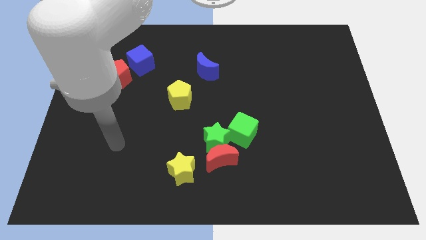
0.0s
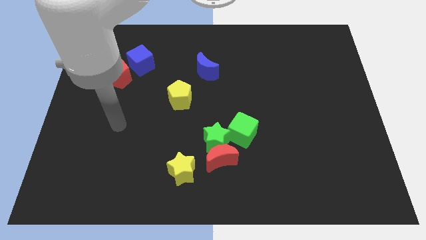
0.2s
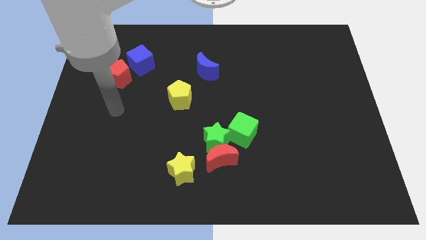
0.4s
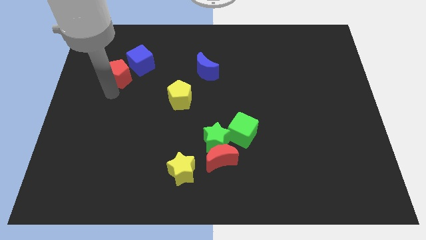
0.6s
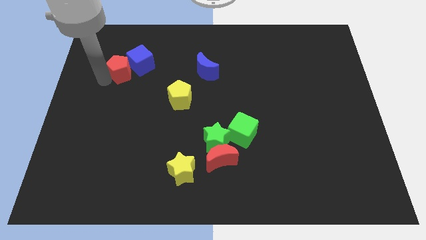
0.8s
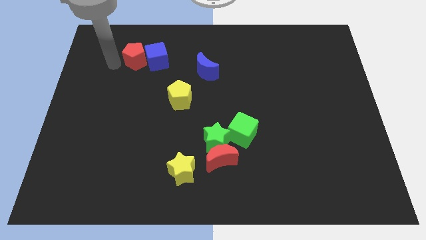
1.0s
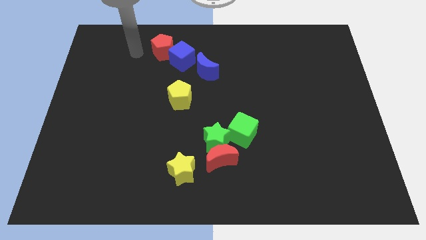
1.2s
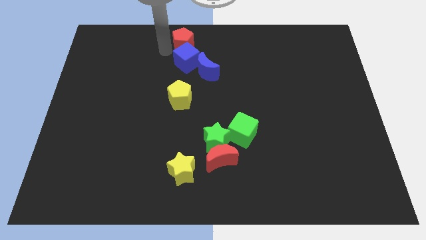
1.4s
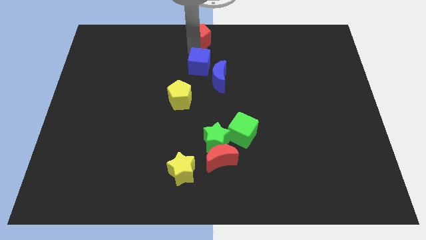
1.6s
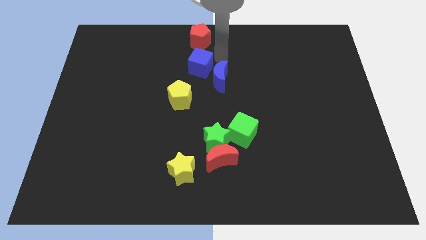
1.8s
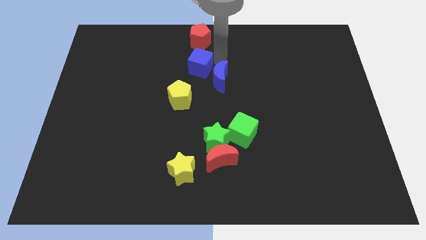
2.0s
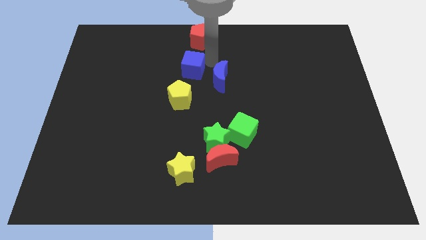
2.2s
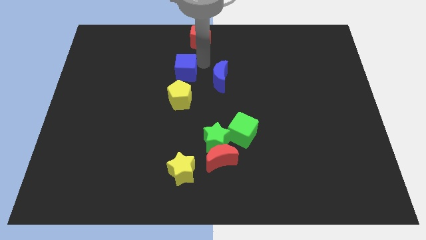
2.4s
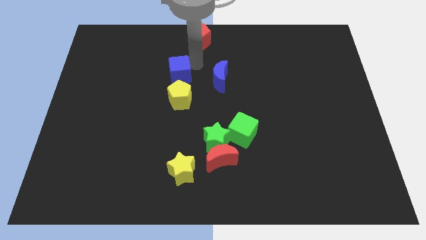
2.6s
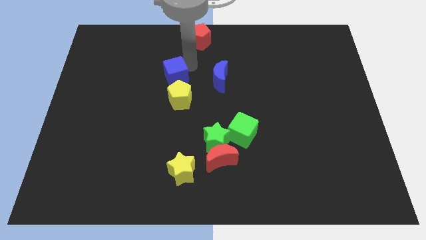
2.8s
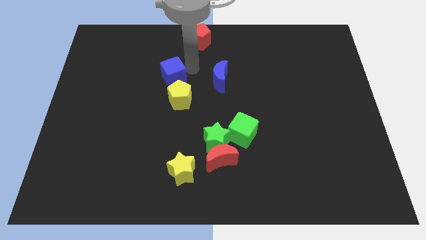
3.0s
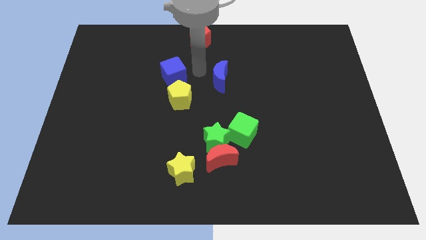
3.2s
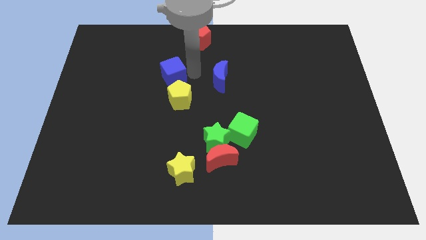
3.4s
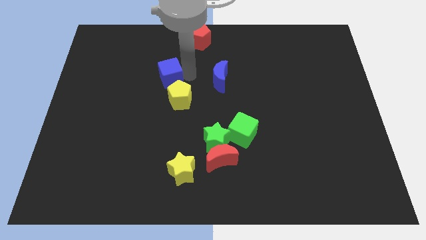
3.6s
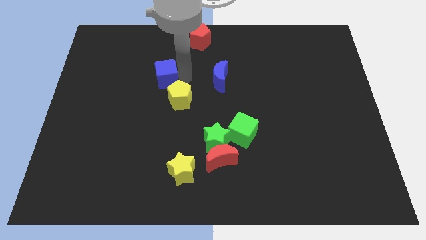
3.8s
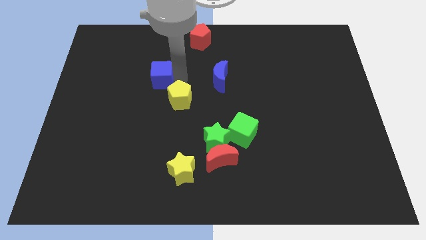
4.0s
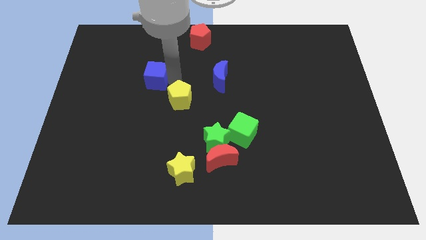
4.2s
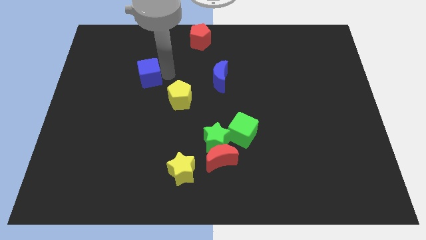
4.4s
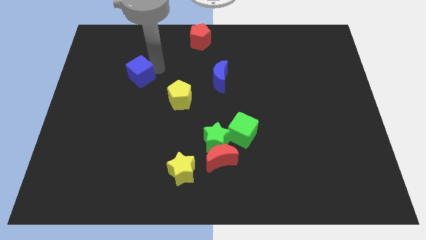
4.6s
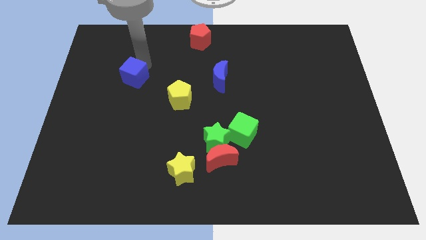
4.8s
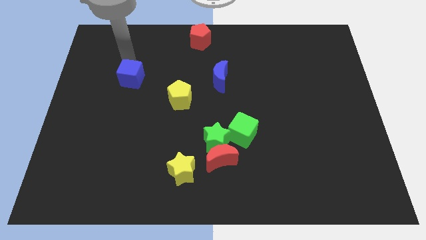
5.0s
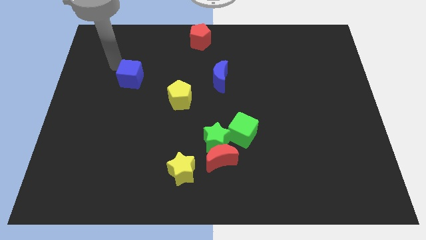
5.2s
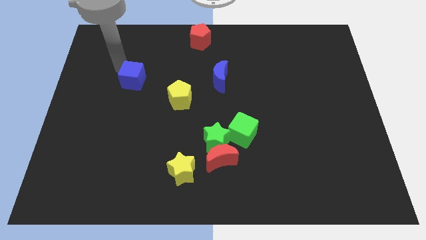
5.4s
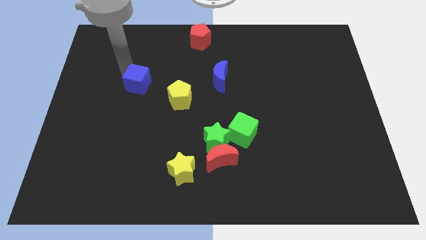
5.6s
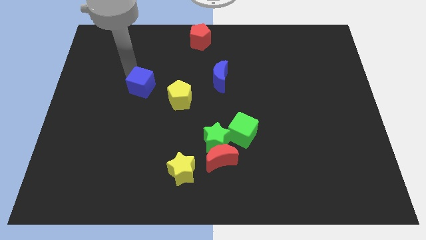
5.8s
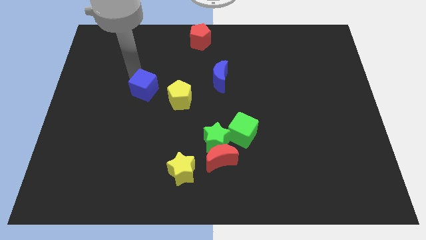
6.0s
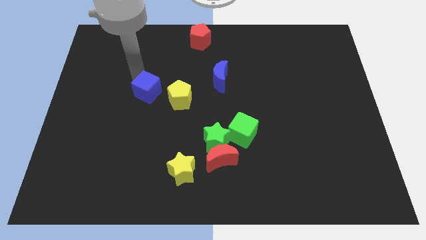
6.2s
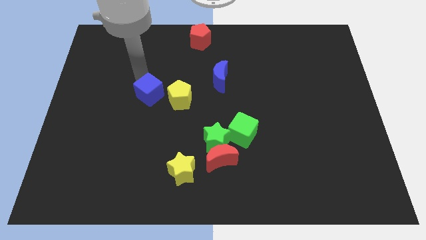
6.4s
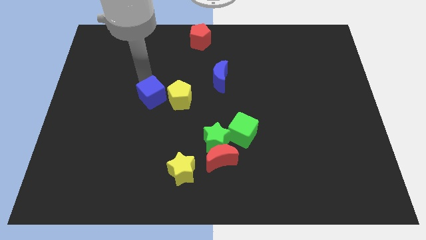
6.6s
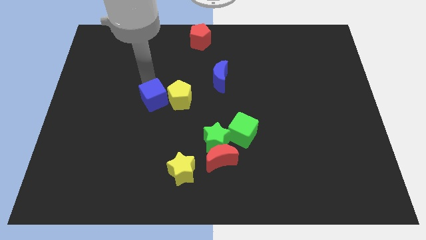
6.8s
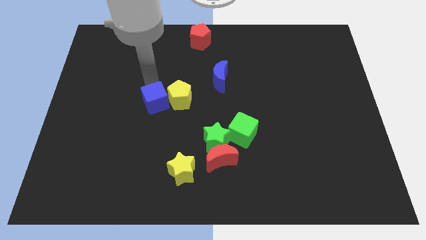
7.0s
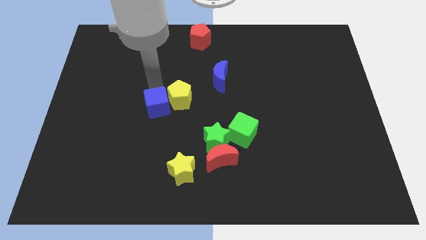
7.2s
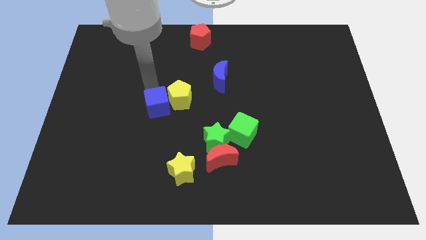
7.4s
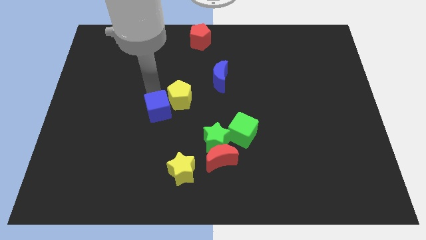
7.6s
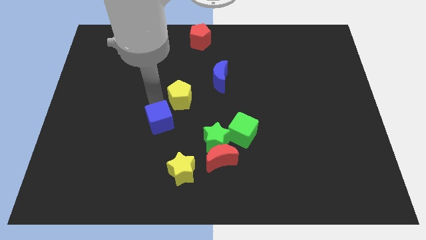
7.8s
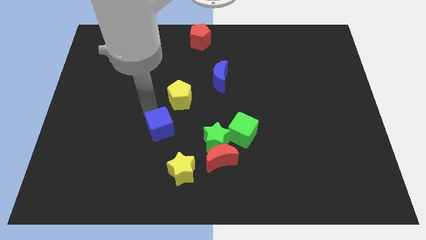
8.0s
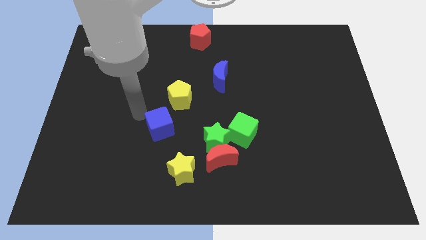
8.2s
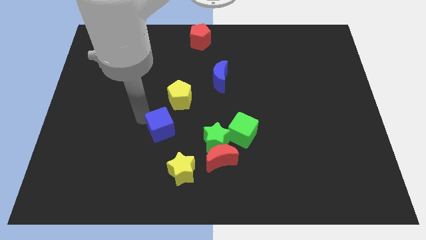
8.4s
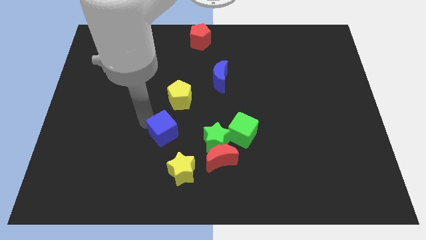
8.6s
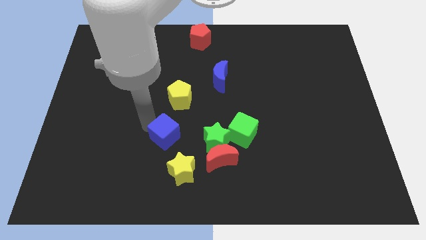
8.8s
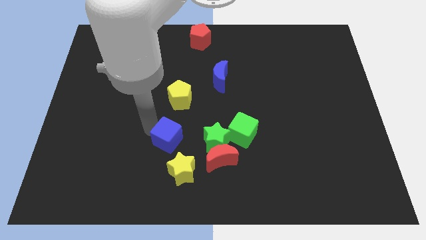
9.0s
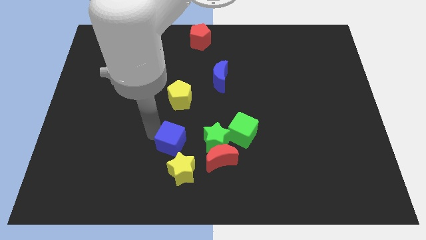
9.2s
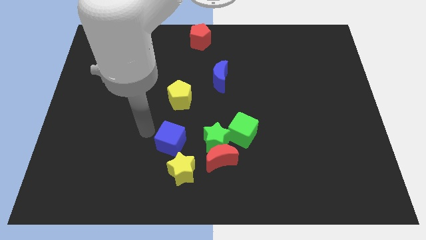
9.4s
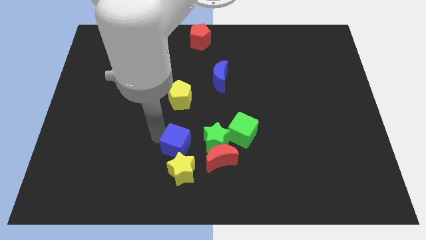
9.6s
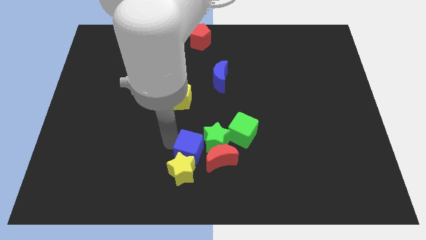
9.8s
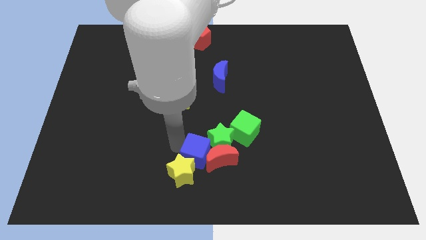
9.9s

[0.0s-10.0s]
push the blue cube towards the red moon

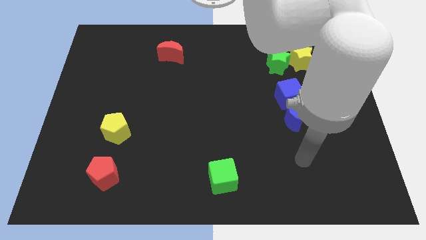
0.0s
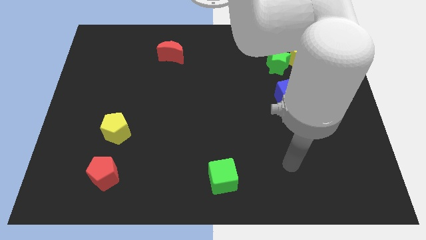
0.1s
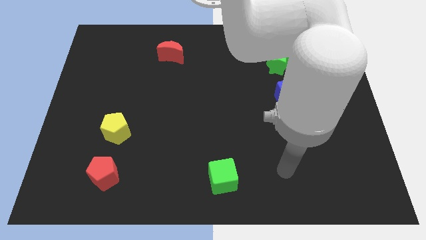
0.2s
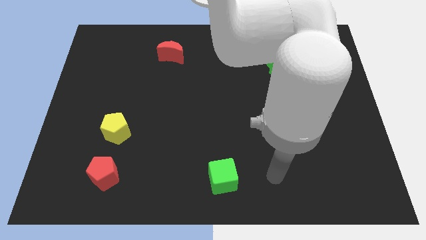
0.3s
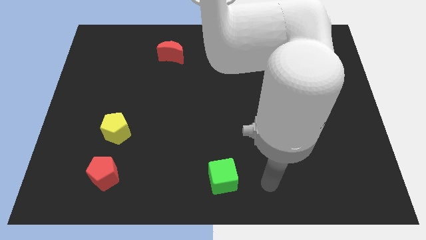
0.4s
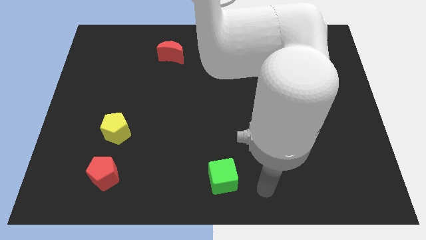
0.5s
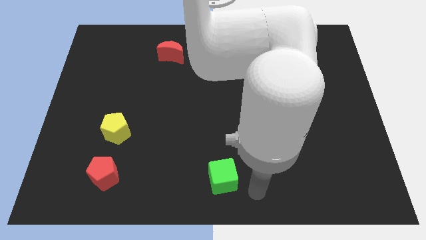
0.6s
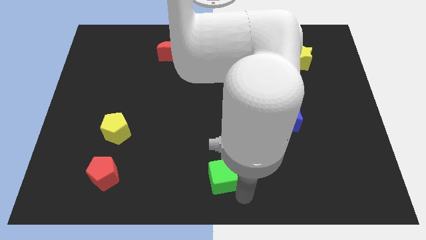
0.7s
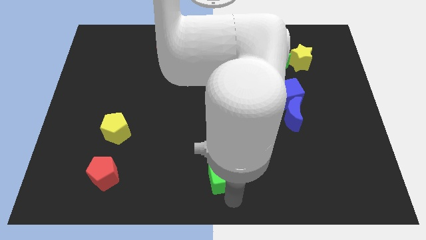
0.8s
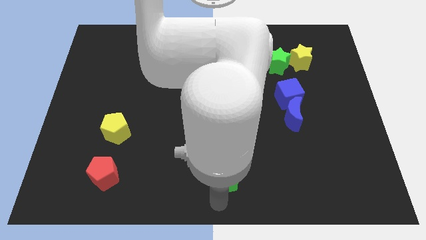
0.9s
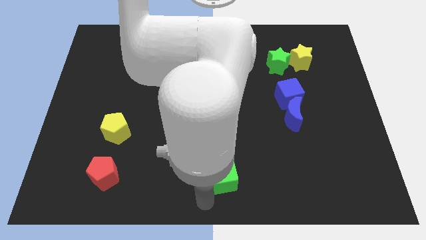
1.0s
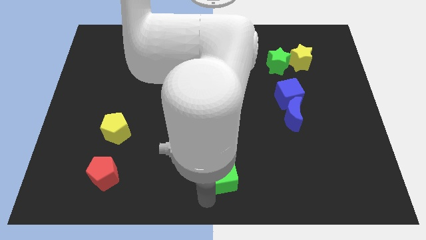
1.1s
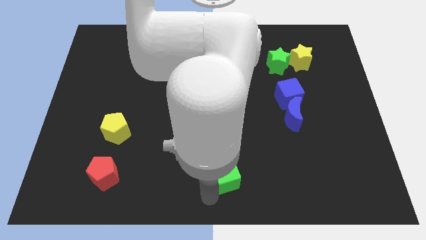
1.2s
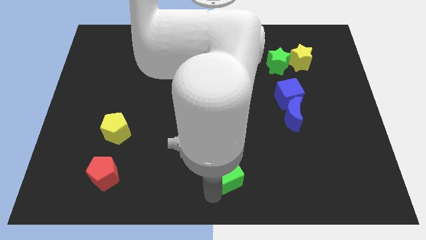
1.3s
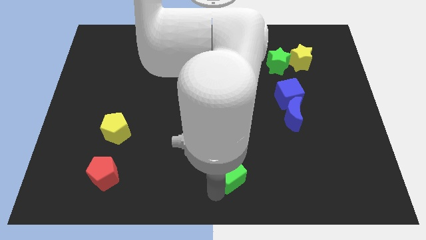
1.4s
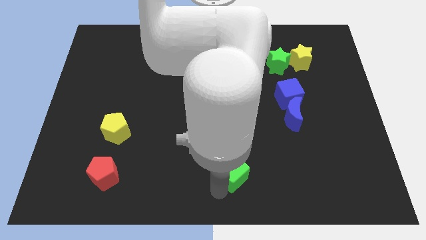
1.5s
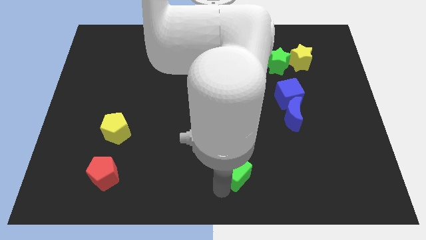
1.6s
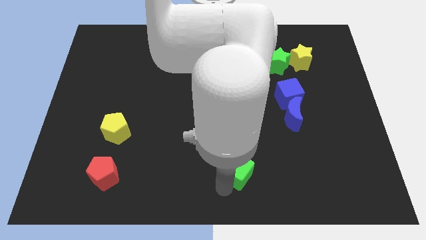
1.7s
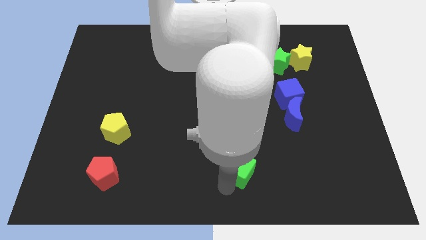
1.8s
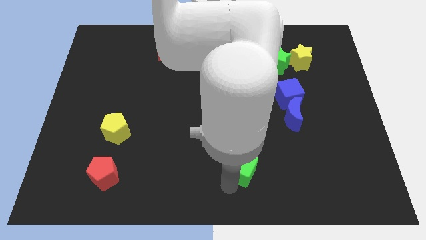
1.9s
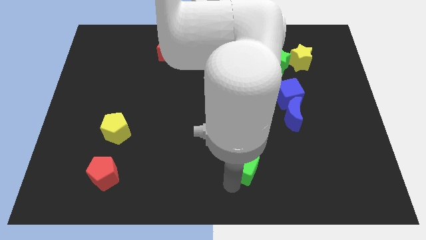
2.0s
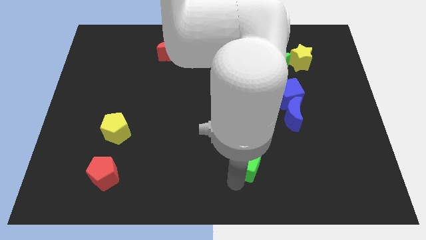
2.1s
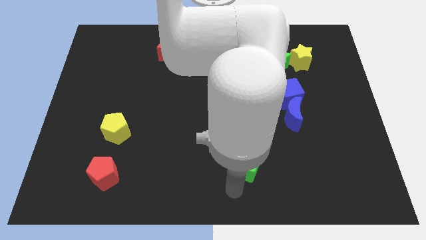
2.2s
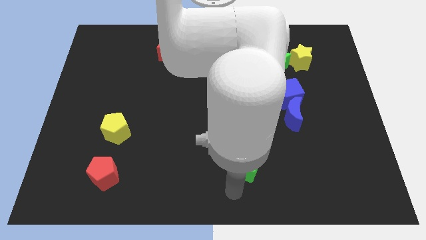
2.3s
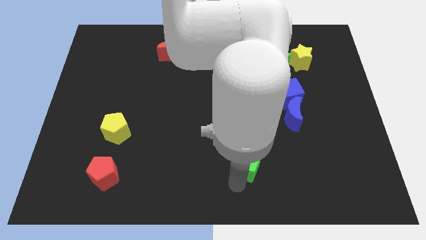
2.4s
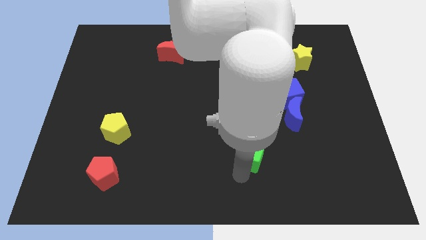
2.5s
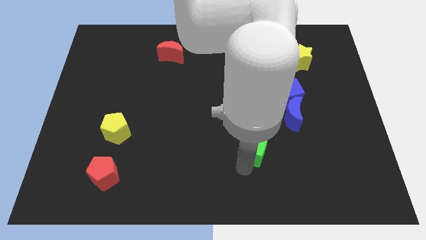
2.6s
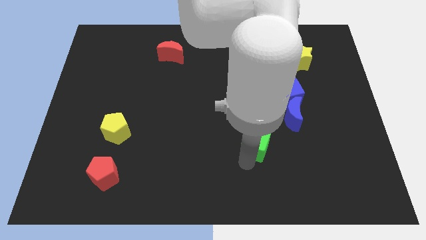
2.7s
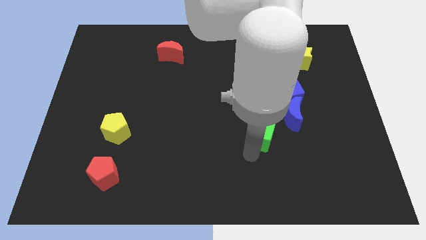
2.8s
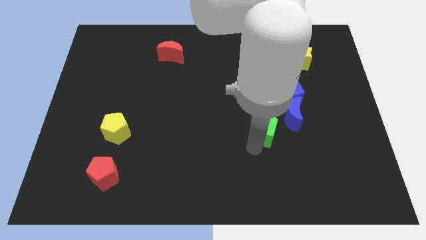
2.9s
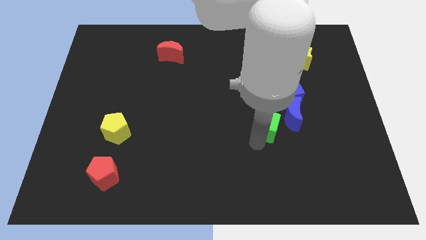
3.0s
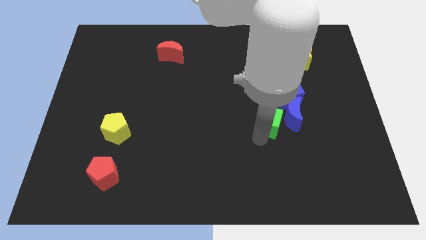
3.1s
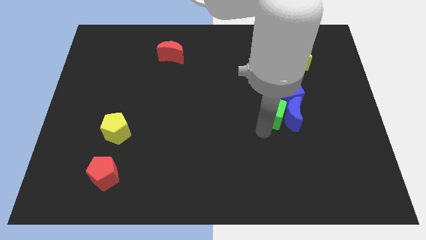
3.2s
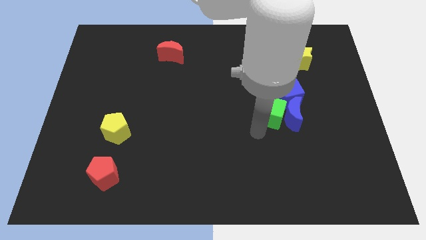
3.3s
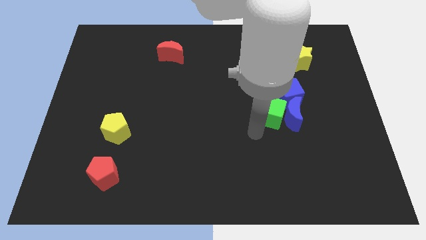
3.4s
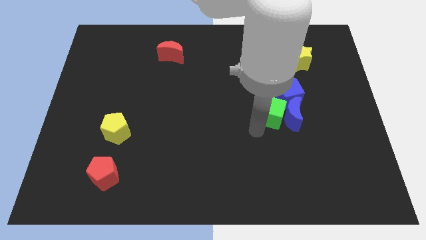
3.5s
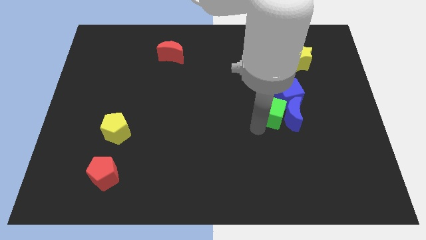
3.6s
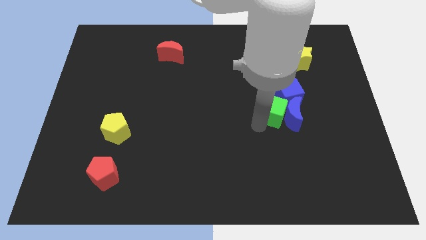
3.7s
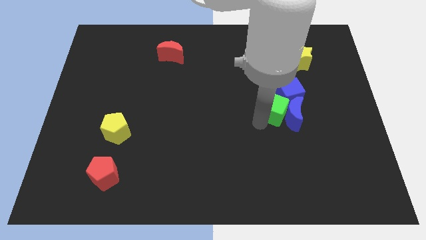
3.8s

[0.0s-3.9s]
slide the green cube close to the blue cube
